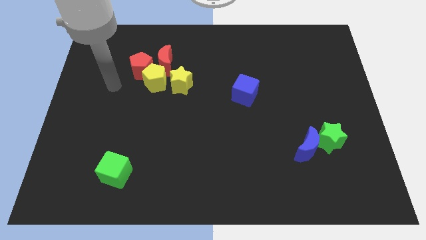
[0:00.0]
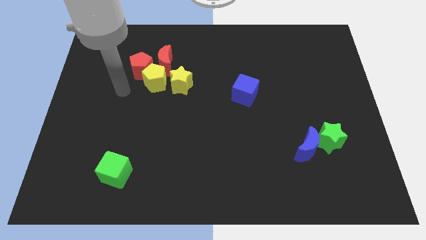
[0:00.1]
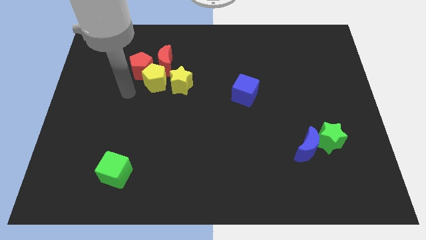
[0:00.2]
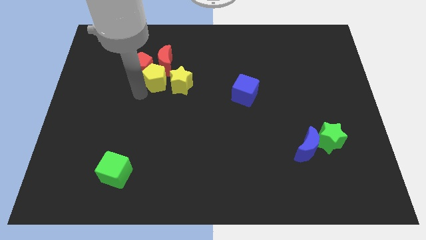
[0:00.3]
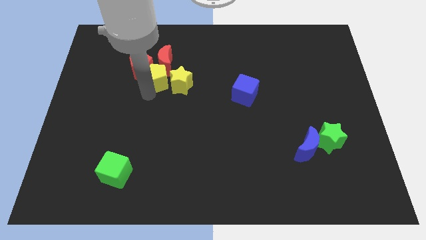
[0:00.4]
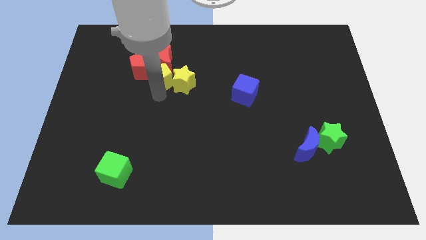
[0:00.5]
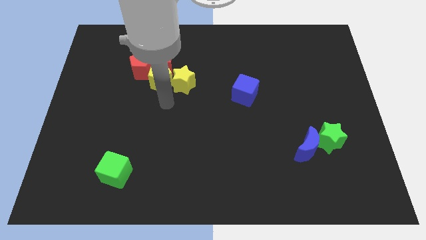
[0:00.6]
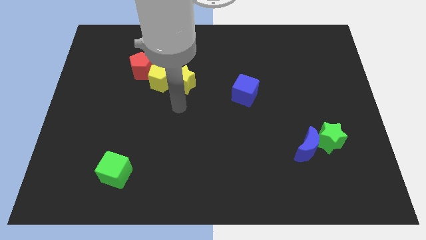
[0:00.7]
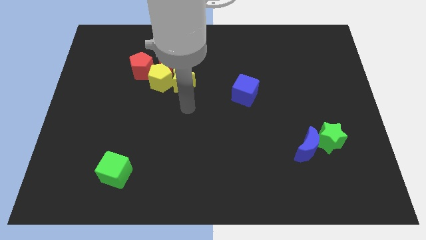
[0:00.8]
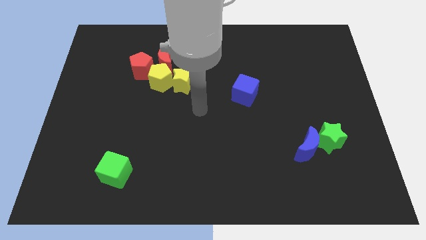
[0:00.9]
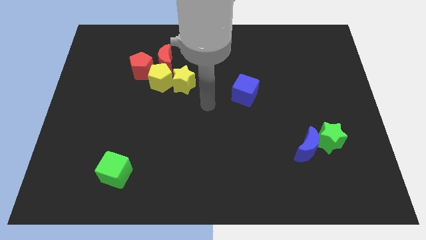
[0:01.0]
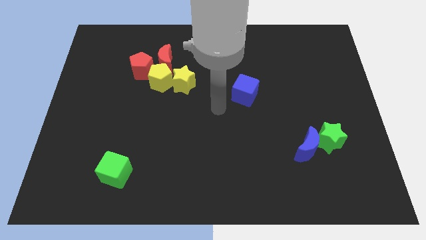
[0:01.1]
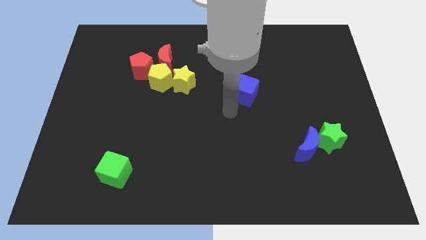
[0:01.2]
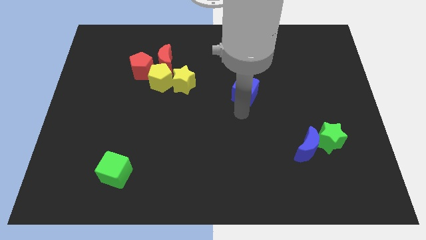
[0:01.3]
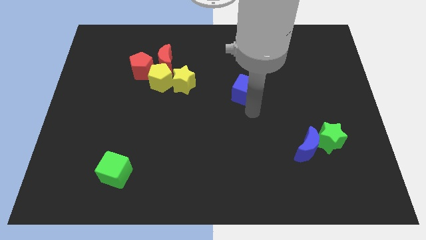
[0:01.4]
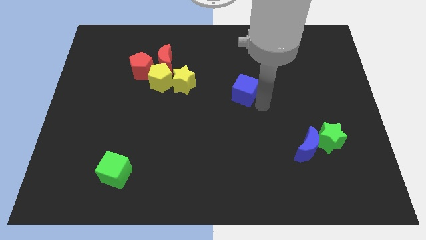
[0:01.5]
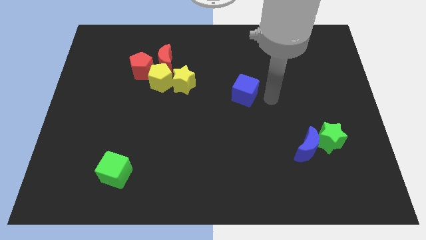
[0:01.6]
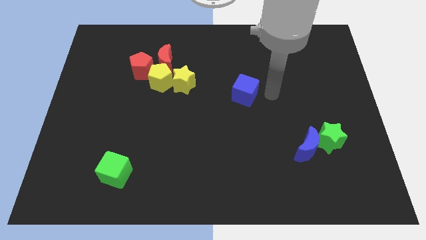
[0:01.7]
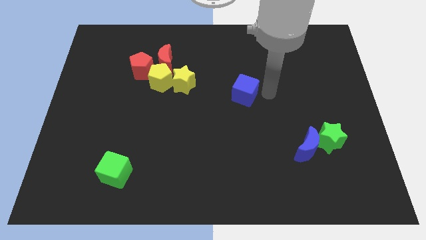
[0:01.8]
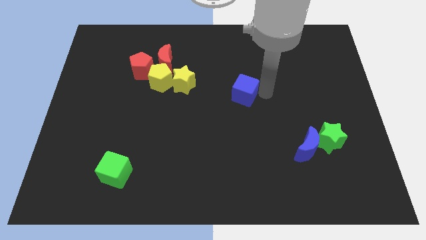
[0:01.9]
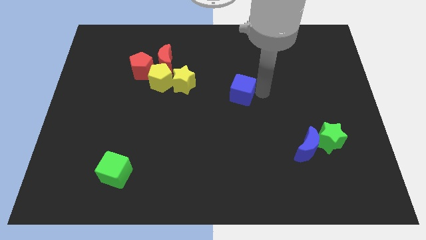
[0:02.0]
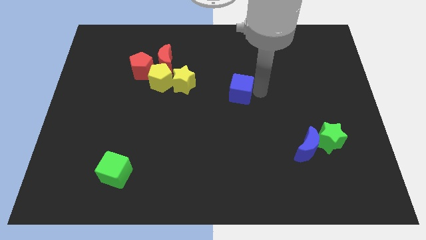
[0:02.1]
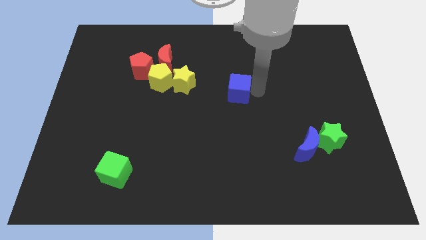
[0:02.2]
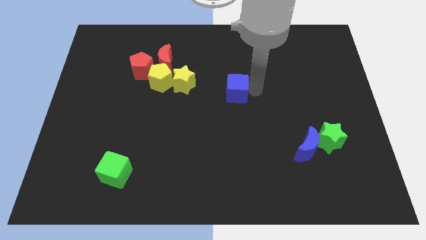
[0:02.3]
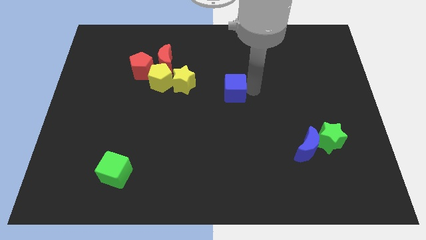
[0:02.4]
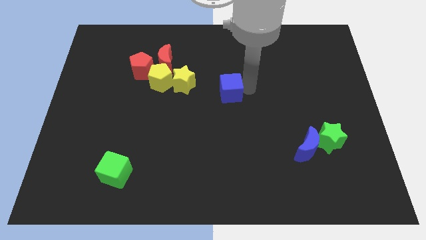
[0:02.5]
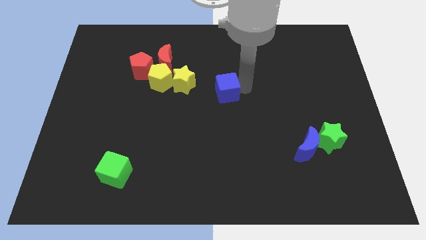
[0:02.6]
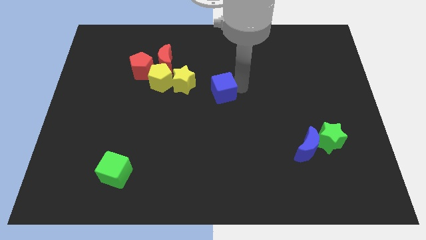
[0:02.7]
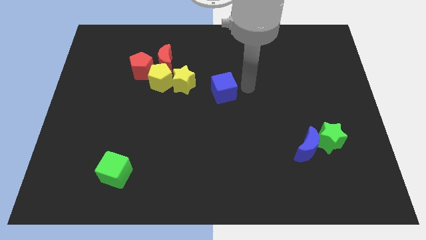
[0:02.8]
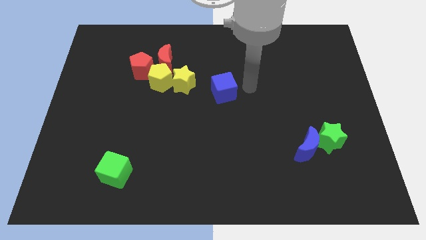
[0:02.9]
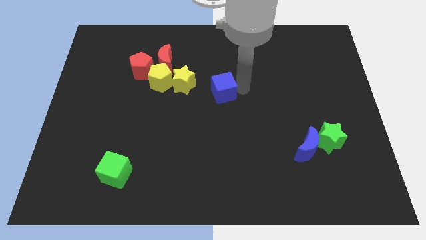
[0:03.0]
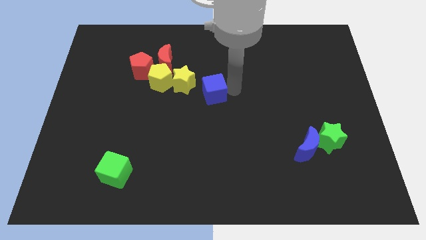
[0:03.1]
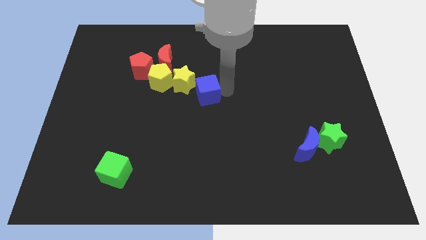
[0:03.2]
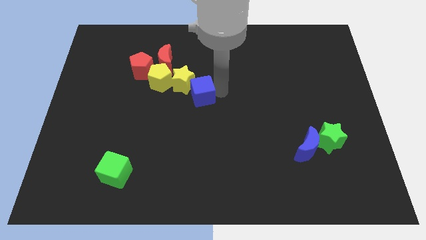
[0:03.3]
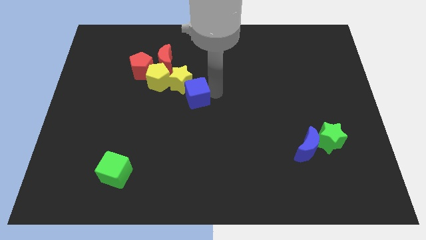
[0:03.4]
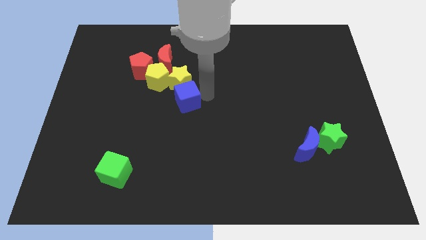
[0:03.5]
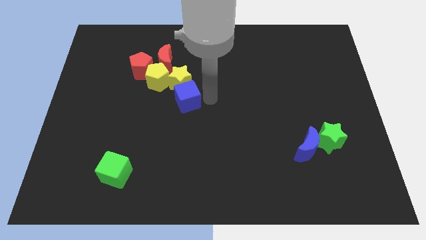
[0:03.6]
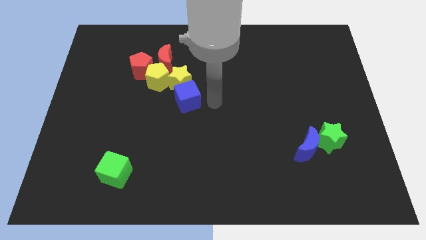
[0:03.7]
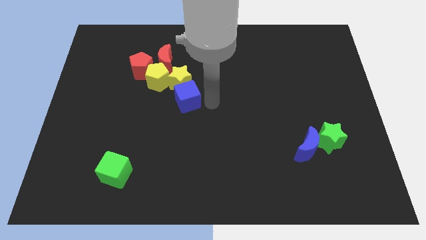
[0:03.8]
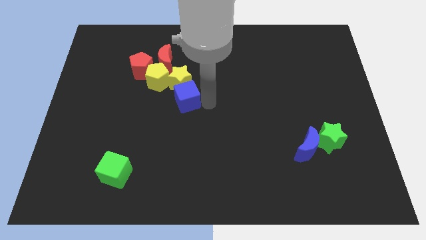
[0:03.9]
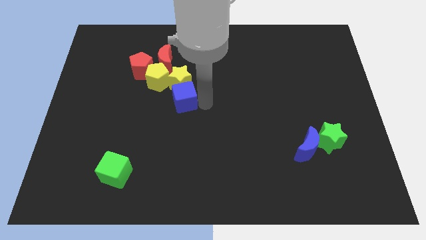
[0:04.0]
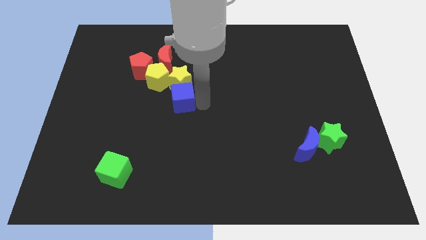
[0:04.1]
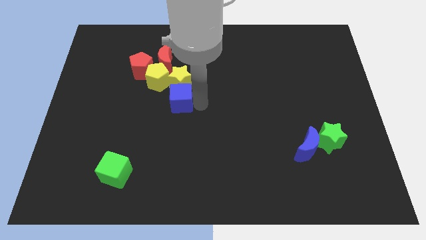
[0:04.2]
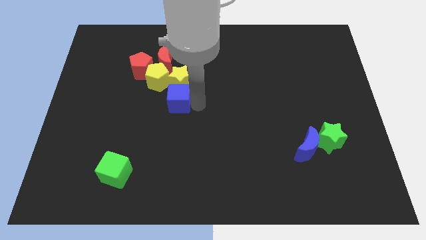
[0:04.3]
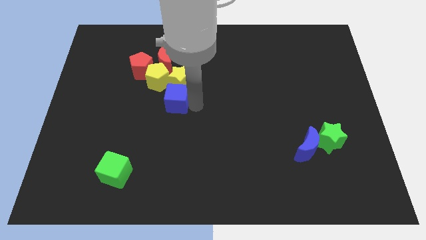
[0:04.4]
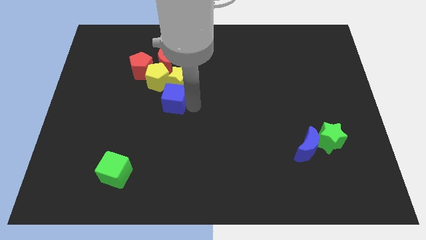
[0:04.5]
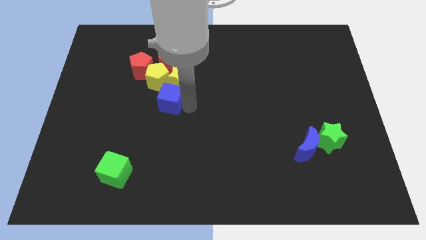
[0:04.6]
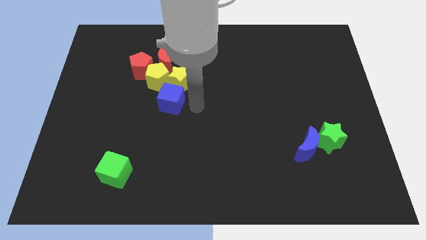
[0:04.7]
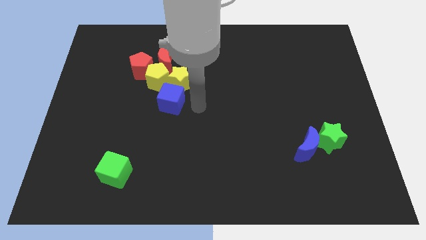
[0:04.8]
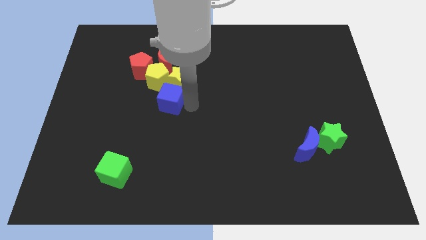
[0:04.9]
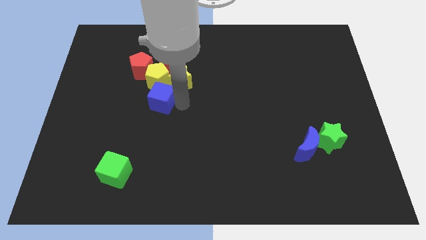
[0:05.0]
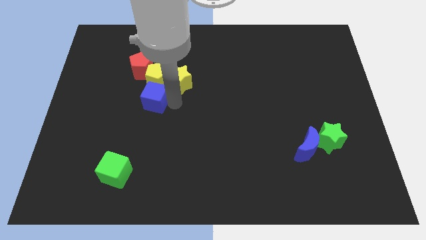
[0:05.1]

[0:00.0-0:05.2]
put the blue cube diagonally down and to the left of the yellow pentagon

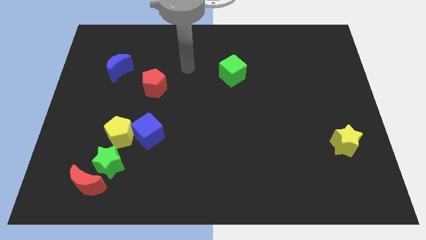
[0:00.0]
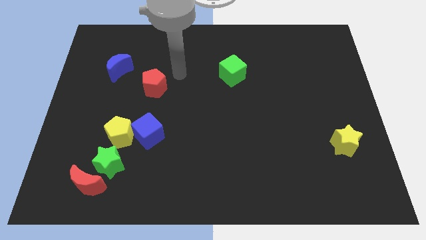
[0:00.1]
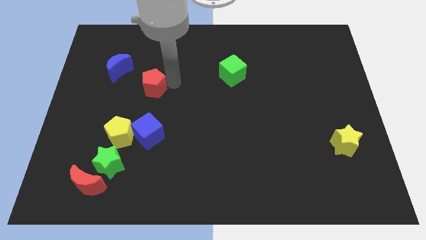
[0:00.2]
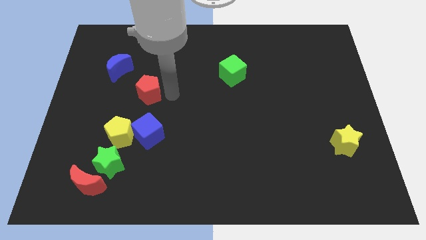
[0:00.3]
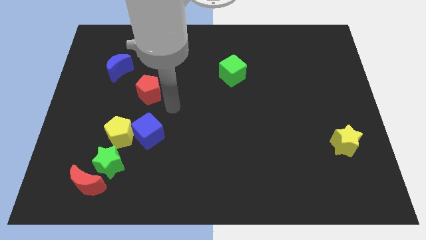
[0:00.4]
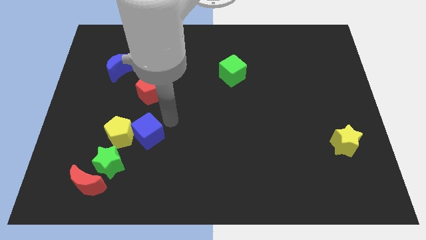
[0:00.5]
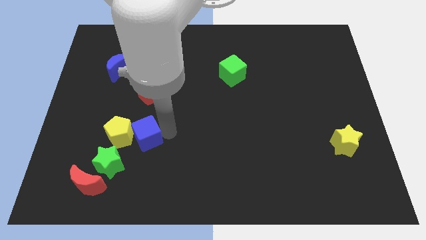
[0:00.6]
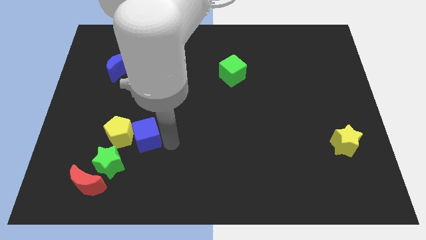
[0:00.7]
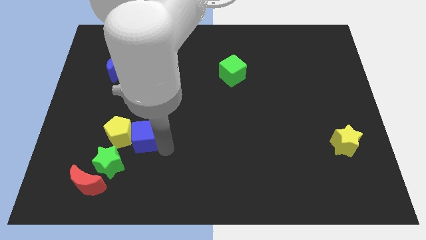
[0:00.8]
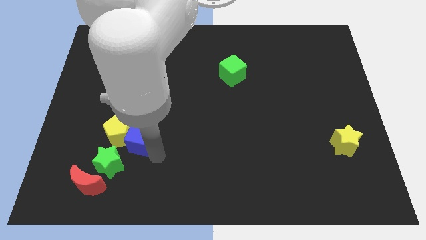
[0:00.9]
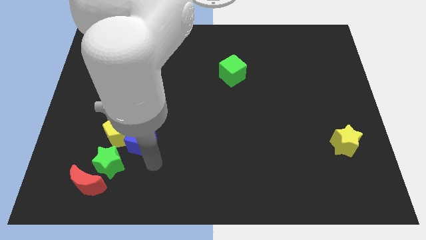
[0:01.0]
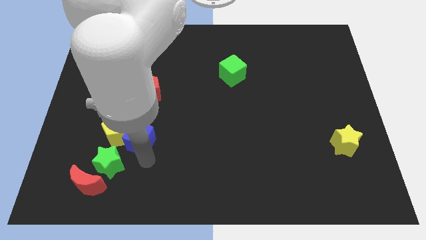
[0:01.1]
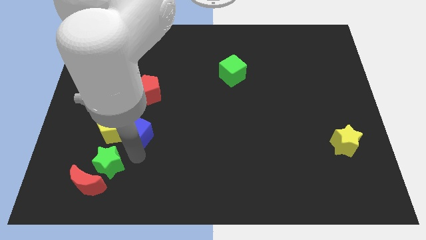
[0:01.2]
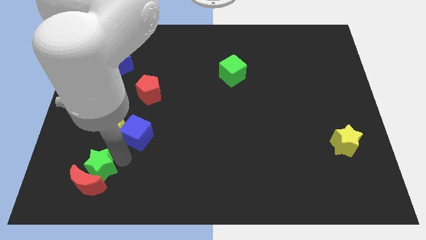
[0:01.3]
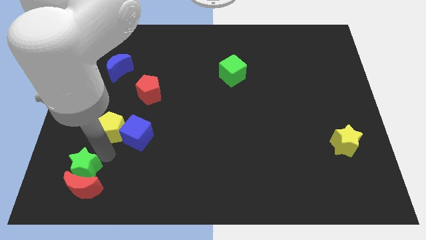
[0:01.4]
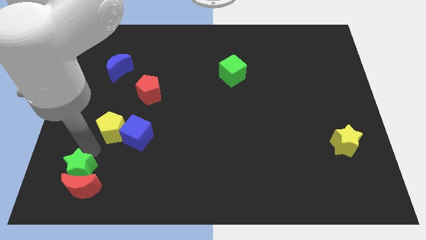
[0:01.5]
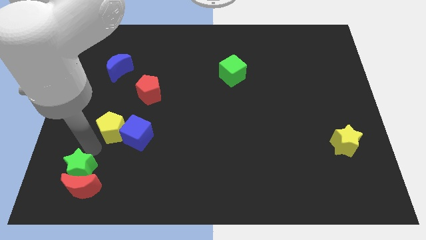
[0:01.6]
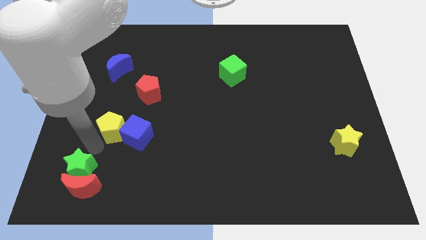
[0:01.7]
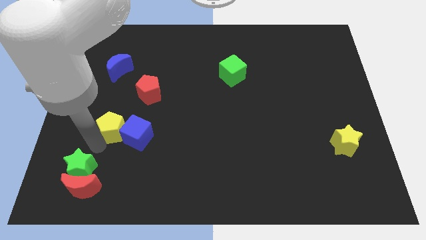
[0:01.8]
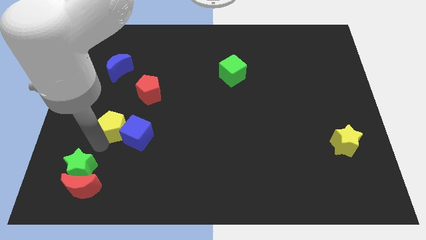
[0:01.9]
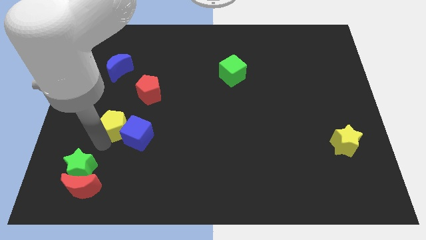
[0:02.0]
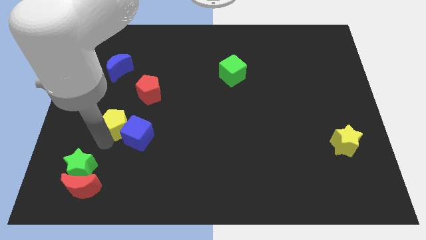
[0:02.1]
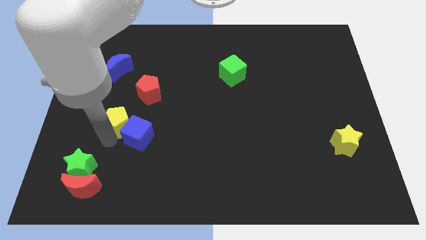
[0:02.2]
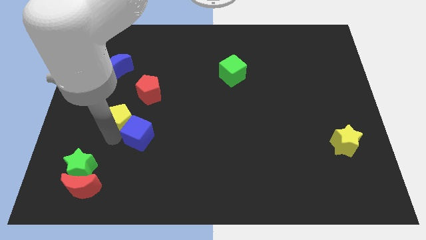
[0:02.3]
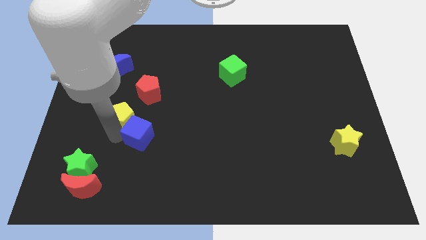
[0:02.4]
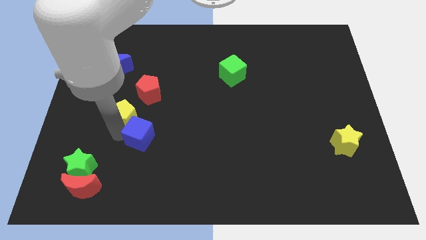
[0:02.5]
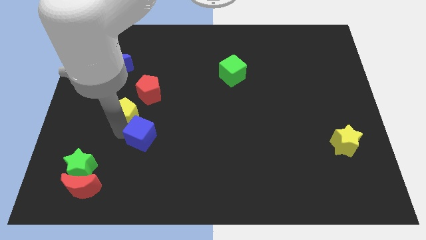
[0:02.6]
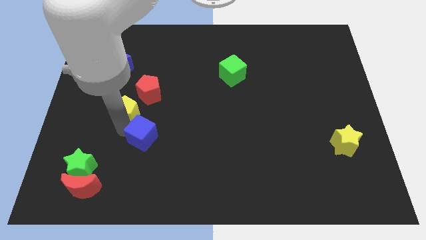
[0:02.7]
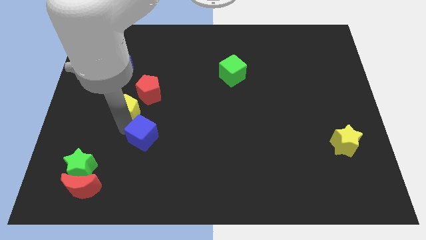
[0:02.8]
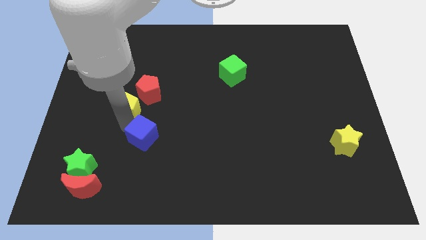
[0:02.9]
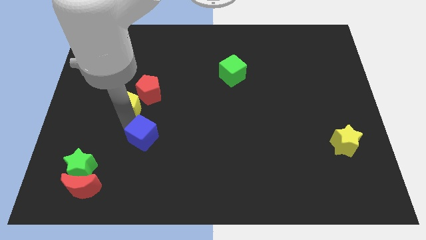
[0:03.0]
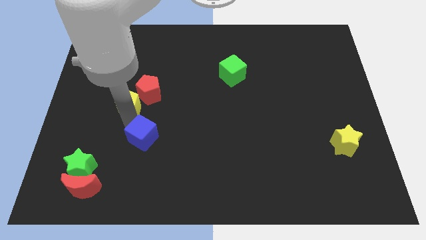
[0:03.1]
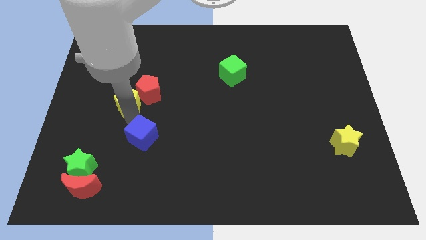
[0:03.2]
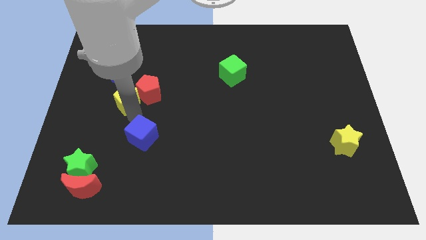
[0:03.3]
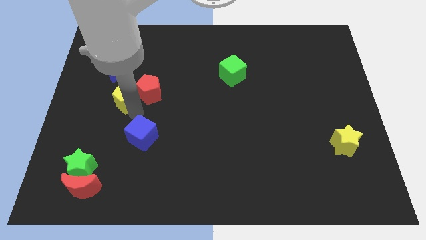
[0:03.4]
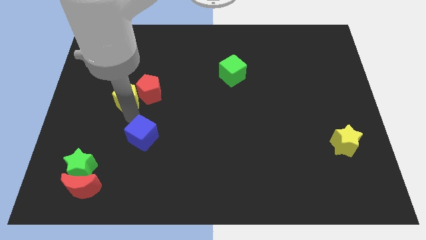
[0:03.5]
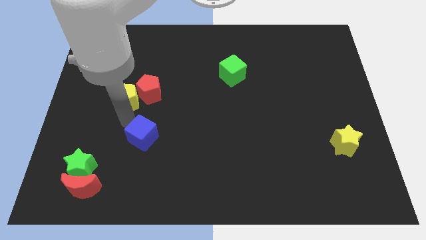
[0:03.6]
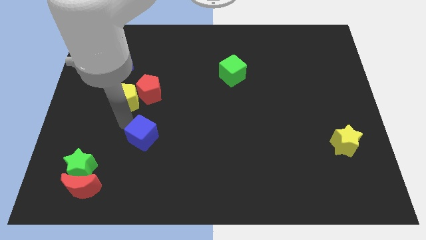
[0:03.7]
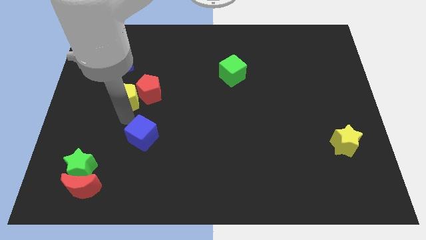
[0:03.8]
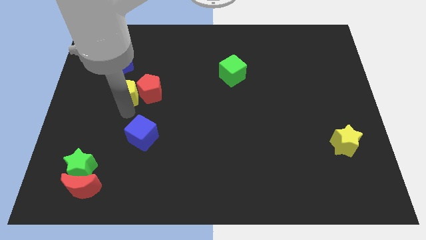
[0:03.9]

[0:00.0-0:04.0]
slide the yellow pentagon to the top left of the red pentagon
